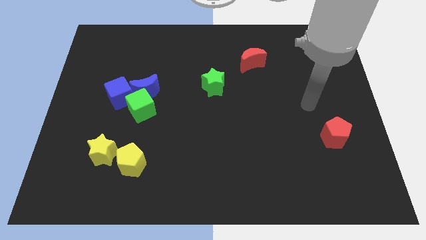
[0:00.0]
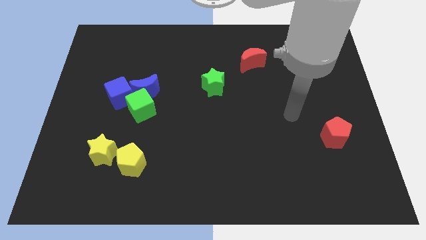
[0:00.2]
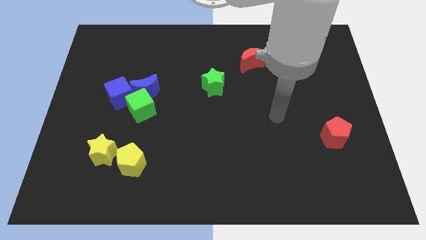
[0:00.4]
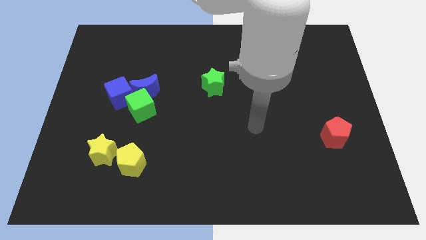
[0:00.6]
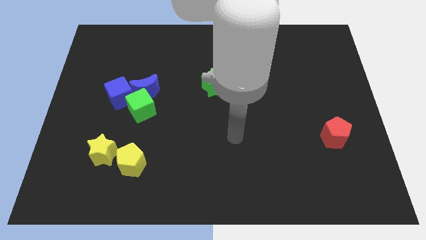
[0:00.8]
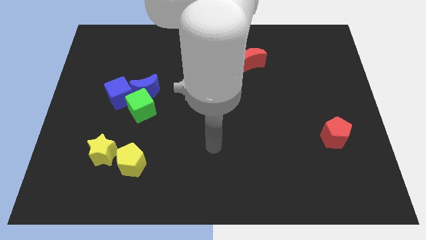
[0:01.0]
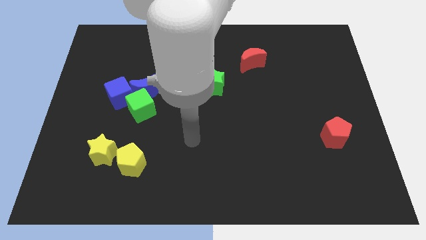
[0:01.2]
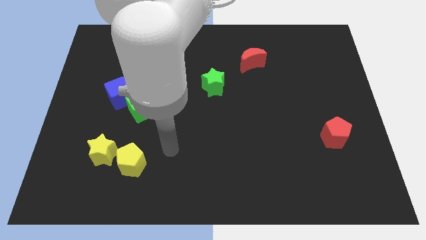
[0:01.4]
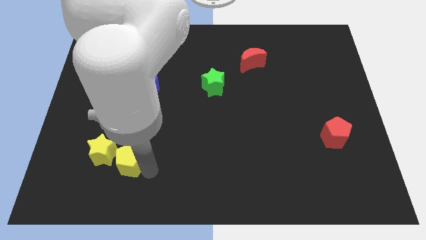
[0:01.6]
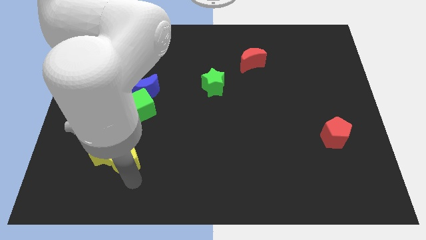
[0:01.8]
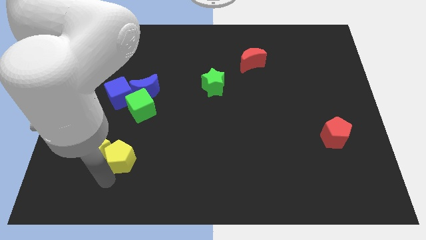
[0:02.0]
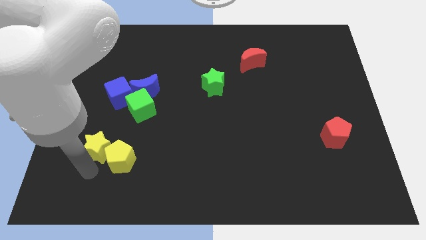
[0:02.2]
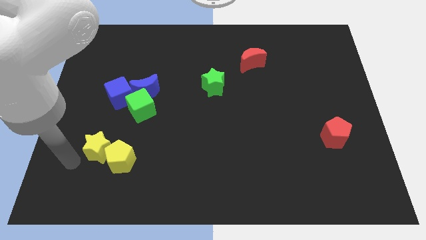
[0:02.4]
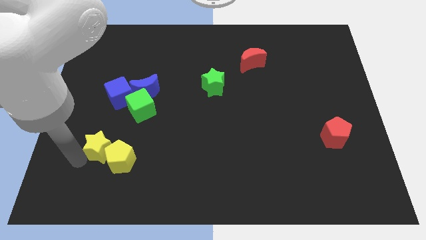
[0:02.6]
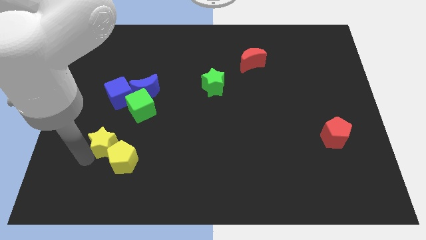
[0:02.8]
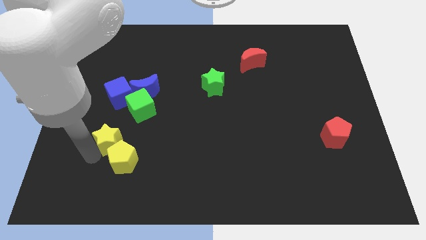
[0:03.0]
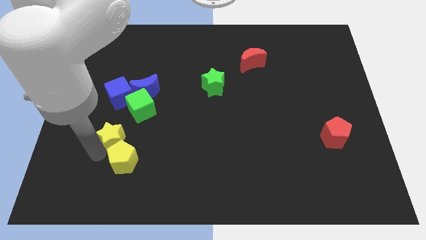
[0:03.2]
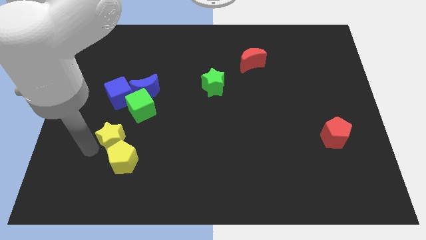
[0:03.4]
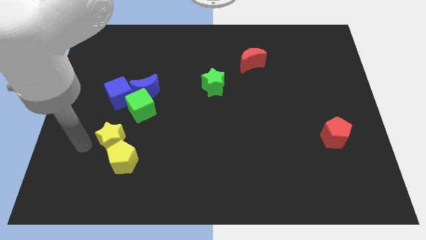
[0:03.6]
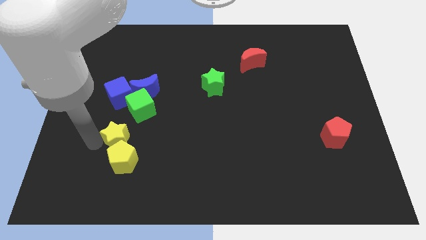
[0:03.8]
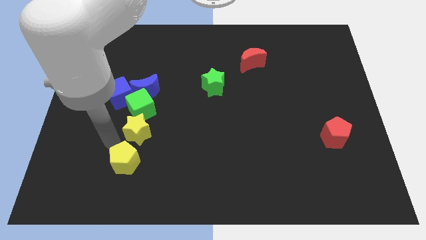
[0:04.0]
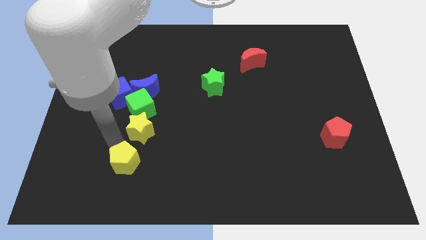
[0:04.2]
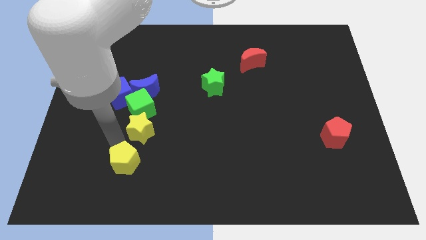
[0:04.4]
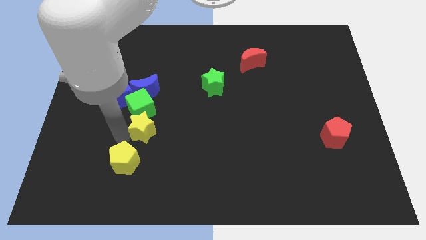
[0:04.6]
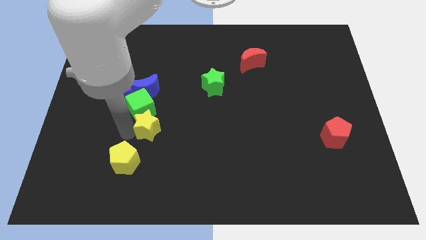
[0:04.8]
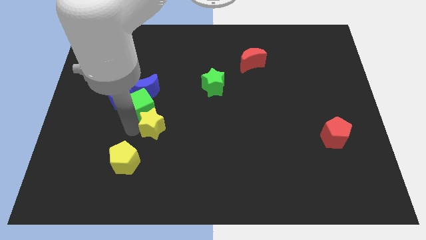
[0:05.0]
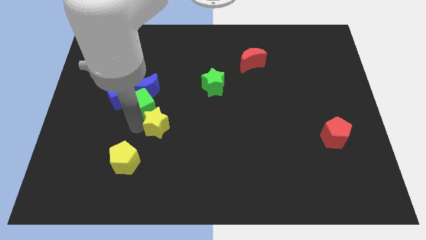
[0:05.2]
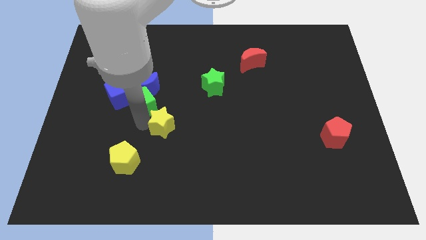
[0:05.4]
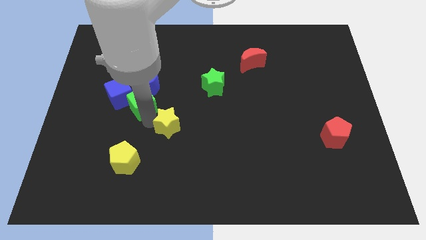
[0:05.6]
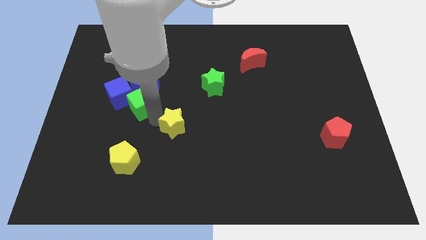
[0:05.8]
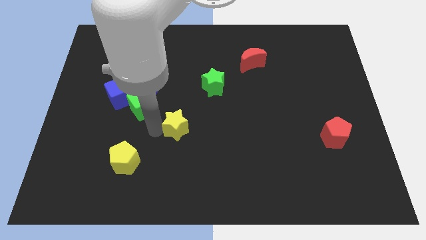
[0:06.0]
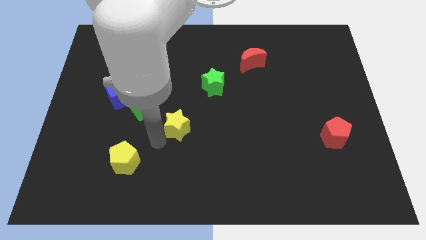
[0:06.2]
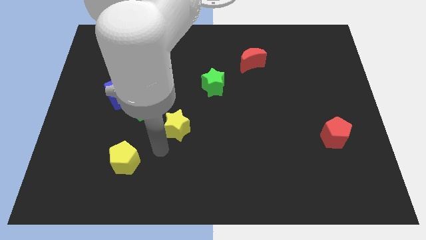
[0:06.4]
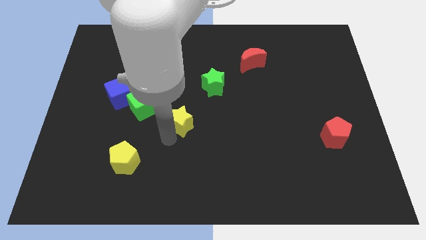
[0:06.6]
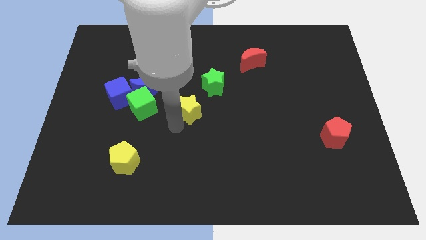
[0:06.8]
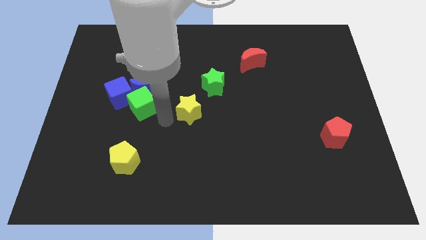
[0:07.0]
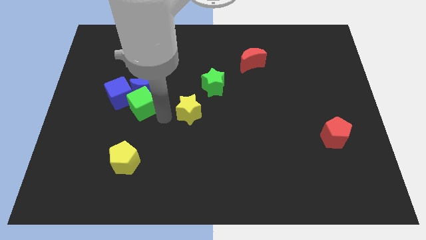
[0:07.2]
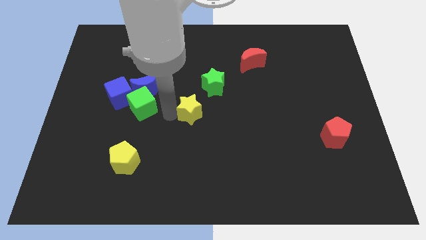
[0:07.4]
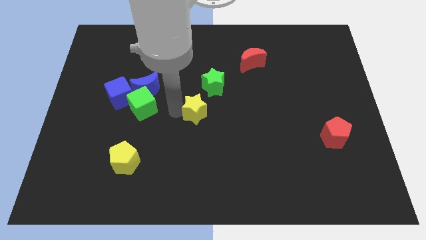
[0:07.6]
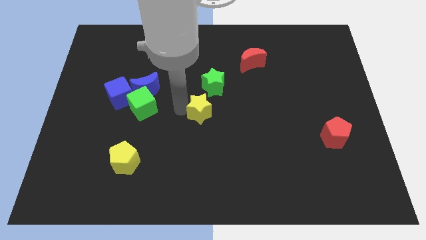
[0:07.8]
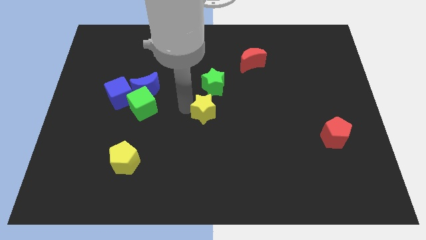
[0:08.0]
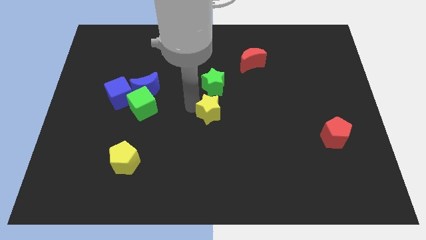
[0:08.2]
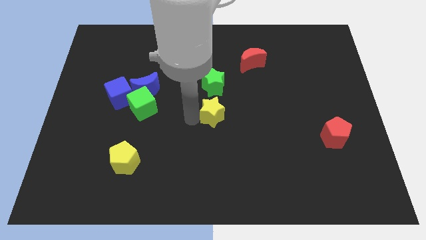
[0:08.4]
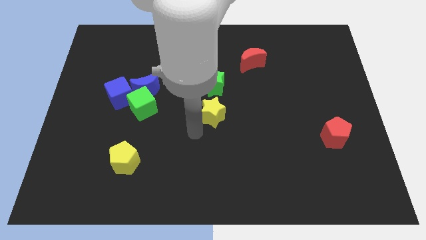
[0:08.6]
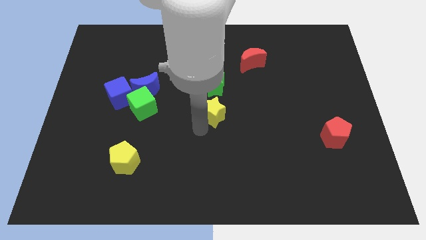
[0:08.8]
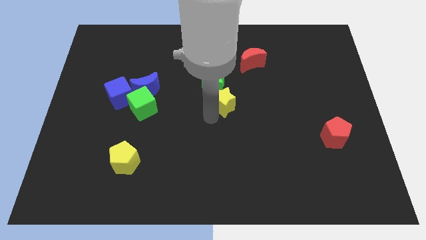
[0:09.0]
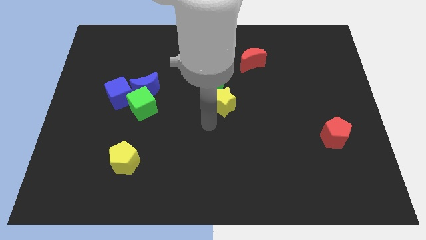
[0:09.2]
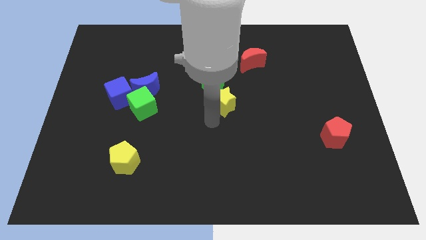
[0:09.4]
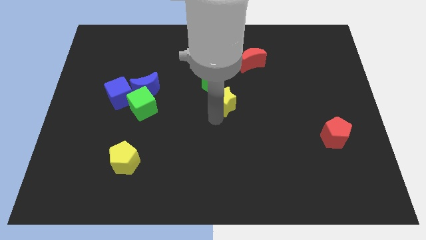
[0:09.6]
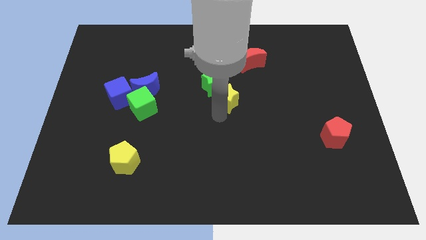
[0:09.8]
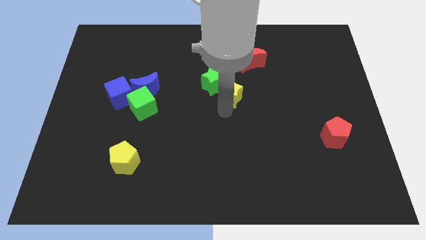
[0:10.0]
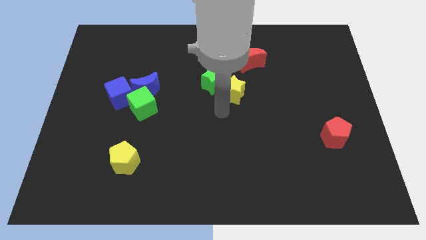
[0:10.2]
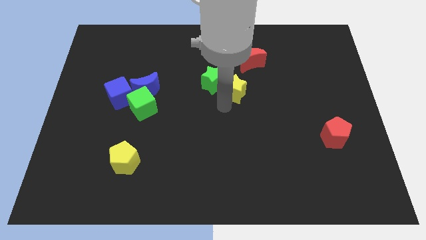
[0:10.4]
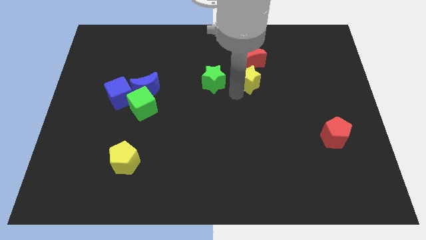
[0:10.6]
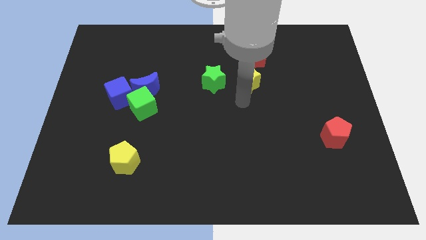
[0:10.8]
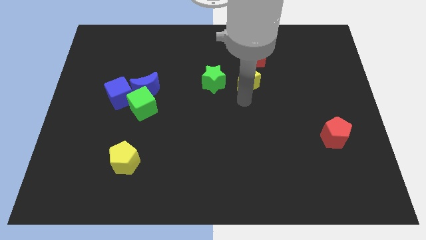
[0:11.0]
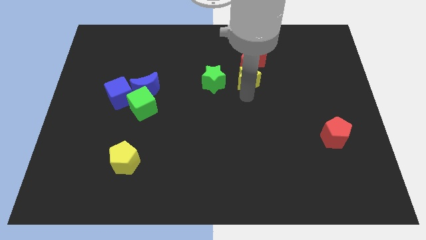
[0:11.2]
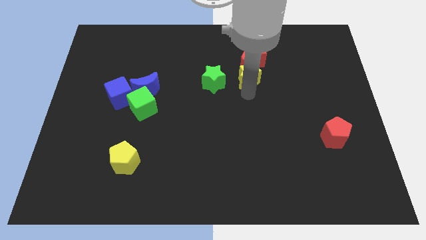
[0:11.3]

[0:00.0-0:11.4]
push the yellow star towards the red moon
